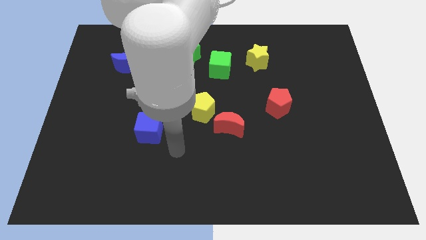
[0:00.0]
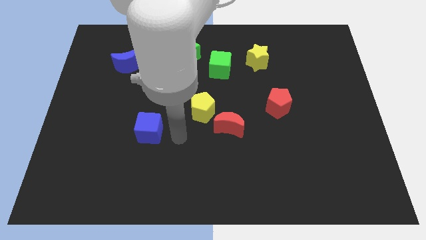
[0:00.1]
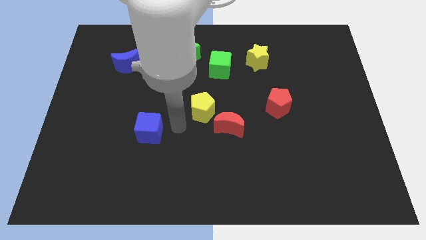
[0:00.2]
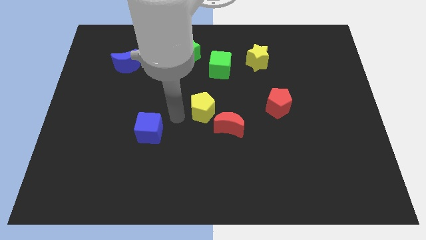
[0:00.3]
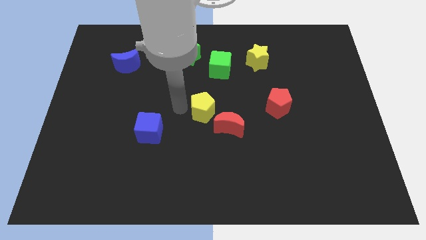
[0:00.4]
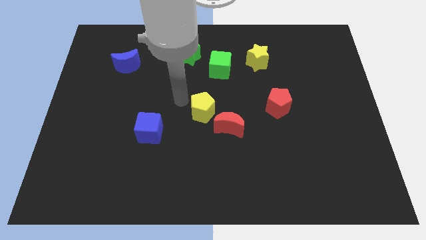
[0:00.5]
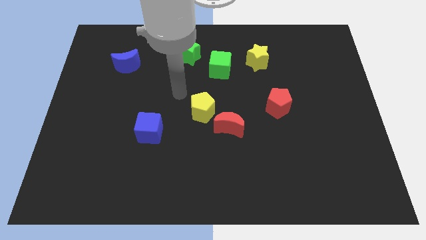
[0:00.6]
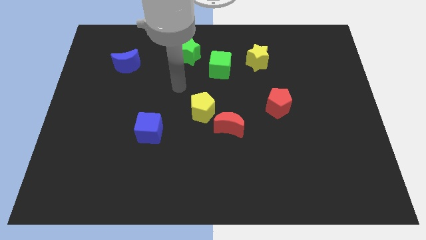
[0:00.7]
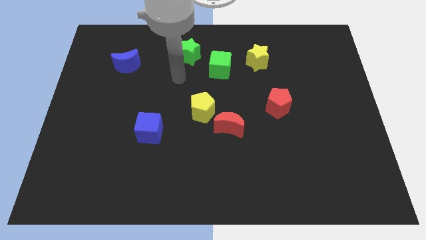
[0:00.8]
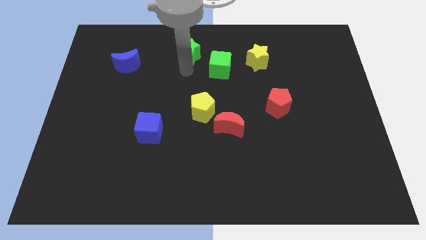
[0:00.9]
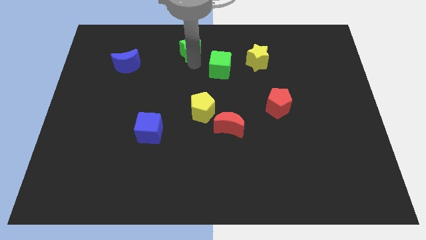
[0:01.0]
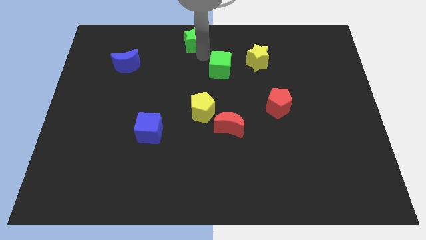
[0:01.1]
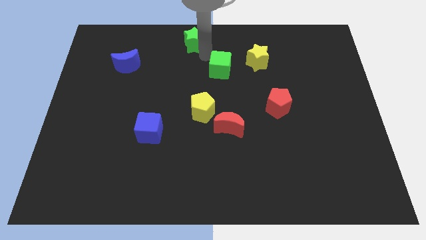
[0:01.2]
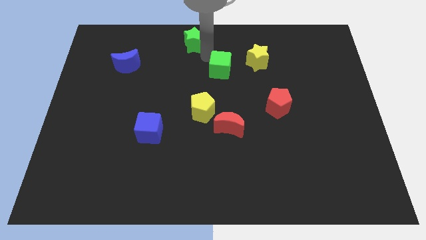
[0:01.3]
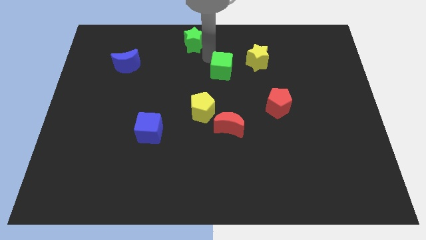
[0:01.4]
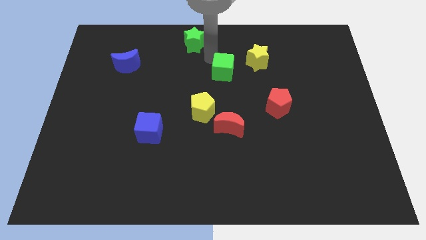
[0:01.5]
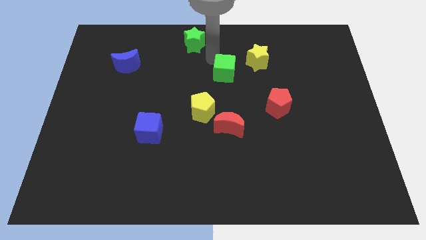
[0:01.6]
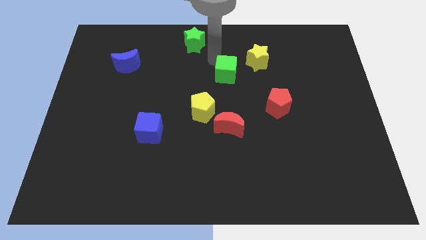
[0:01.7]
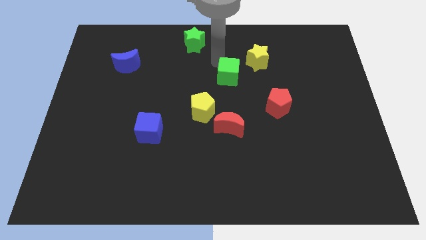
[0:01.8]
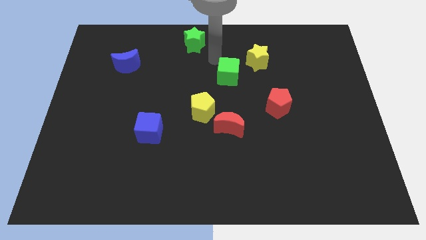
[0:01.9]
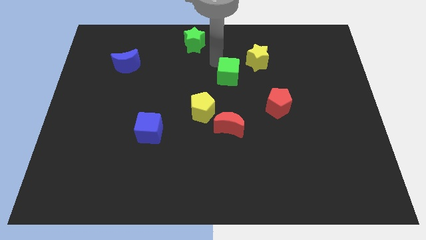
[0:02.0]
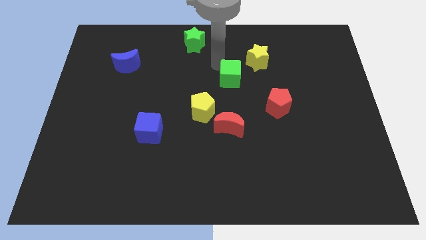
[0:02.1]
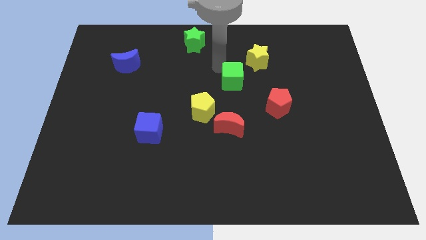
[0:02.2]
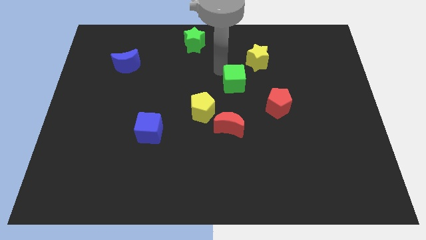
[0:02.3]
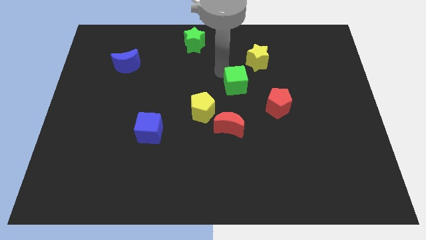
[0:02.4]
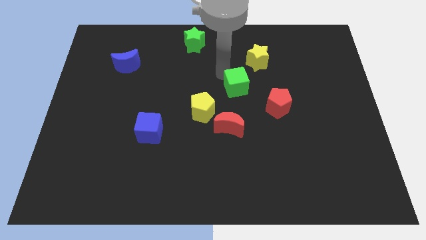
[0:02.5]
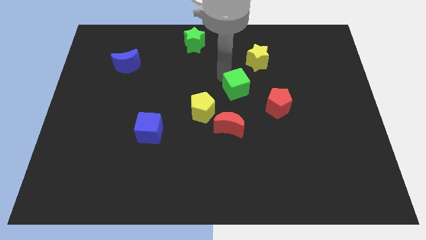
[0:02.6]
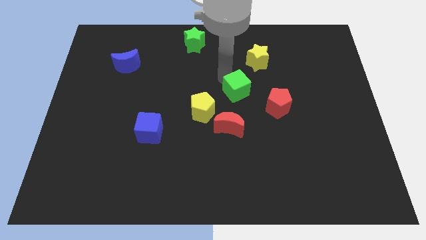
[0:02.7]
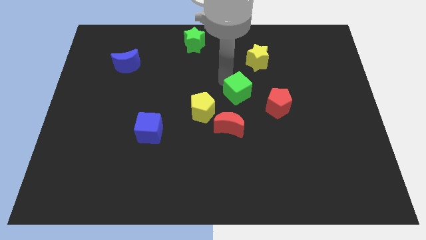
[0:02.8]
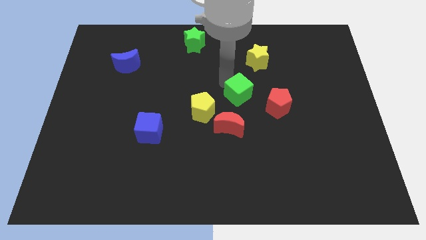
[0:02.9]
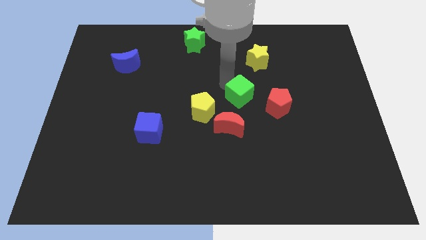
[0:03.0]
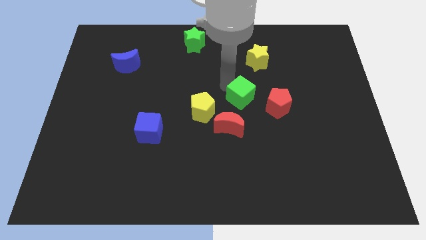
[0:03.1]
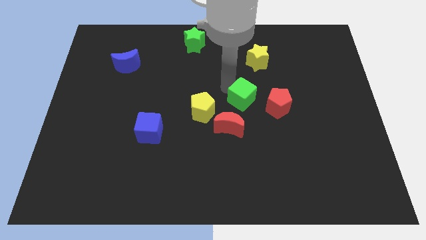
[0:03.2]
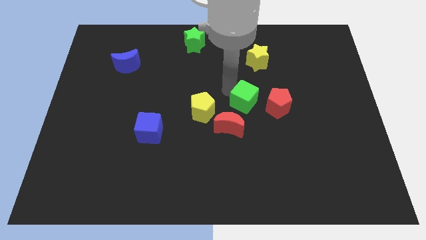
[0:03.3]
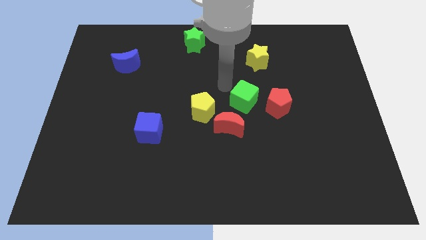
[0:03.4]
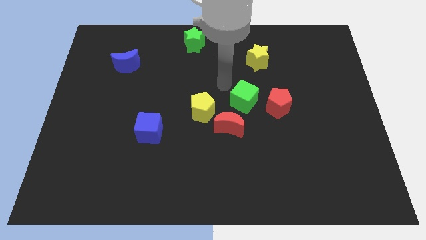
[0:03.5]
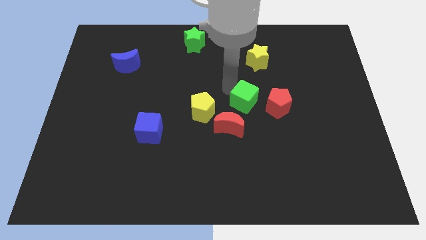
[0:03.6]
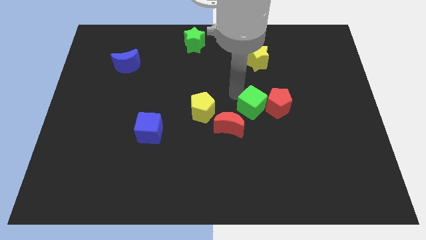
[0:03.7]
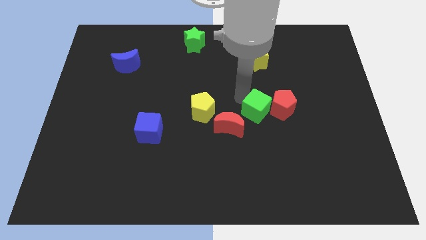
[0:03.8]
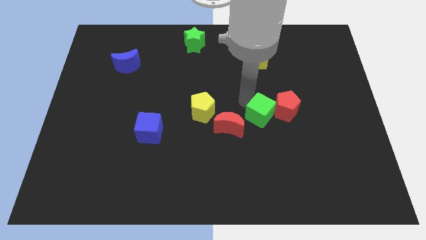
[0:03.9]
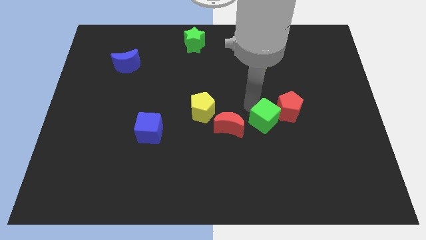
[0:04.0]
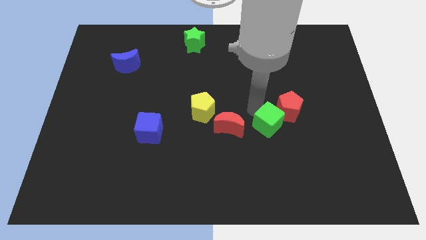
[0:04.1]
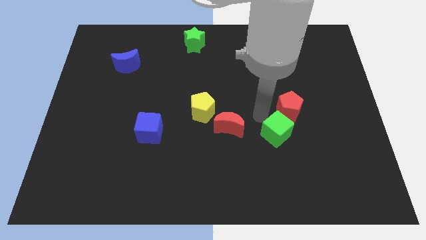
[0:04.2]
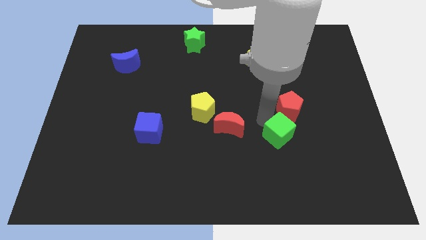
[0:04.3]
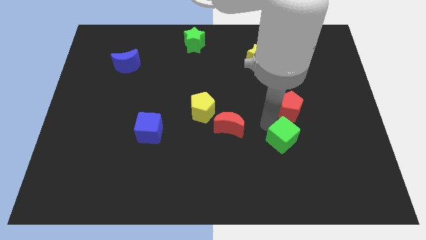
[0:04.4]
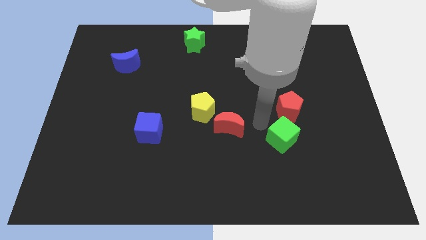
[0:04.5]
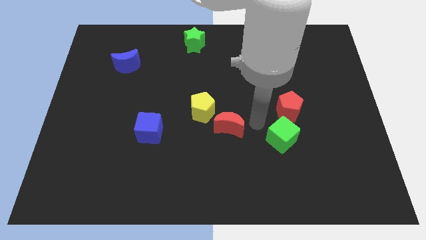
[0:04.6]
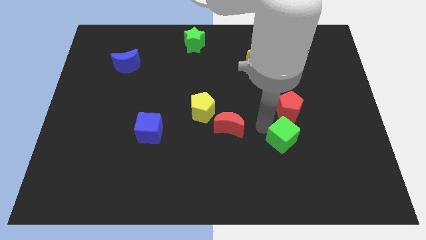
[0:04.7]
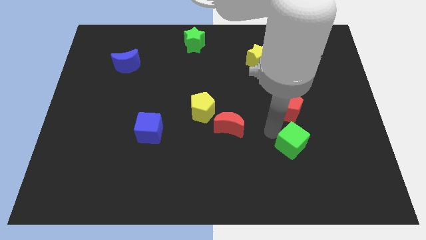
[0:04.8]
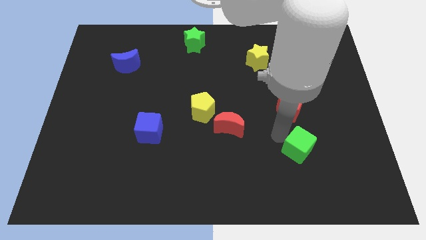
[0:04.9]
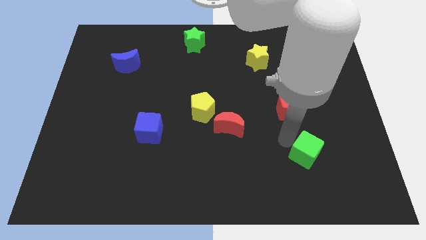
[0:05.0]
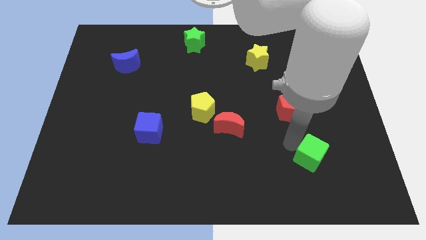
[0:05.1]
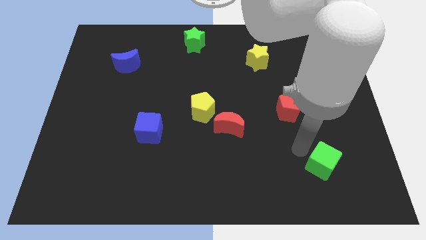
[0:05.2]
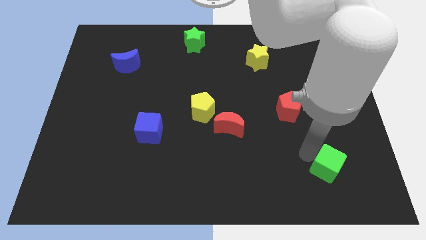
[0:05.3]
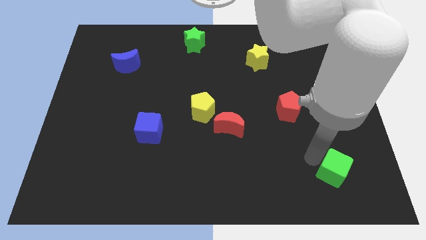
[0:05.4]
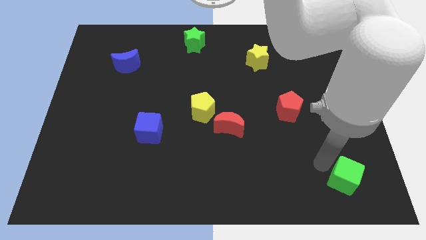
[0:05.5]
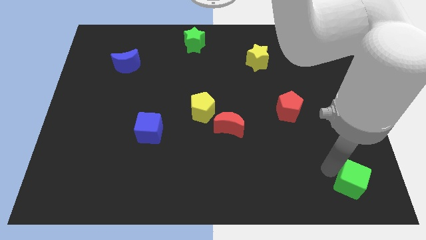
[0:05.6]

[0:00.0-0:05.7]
move the green cube to the bottom right of the board

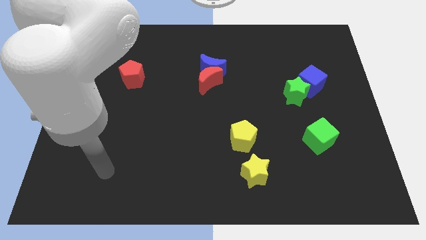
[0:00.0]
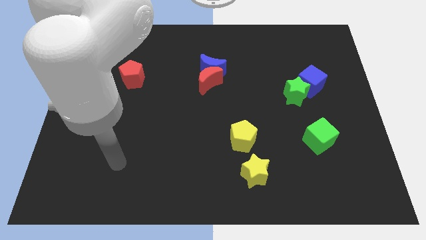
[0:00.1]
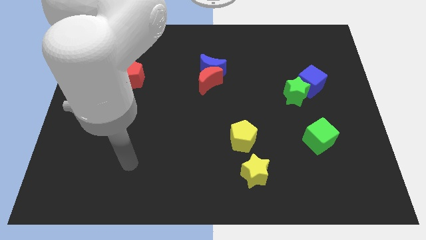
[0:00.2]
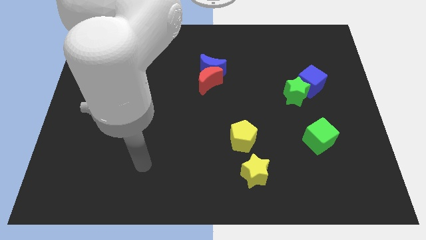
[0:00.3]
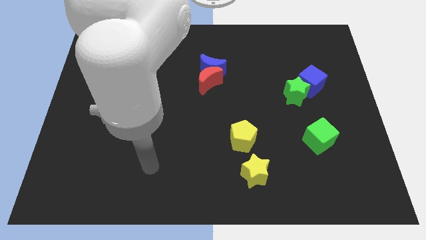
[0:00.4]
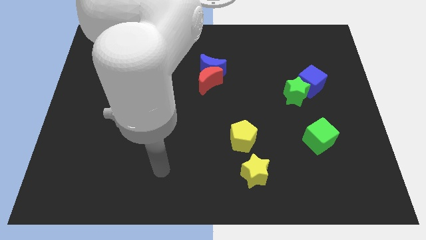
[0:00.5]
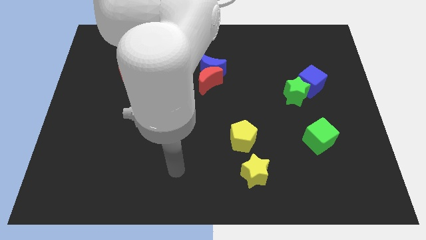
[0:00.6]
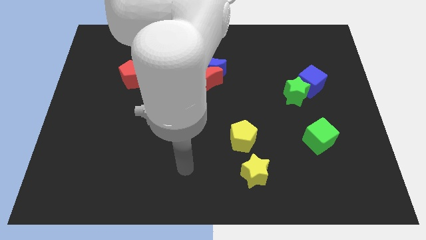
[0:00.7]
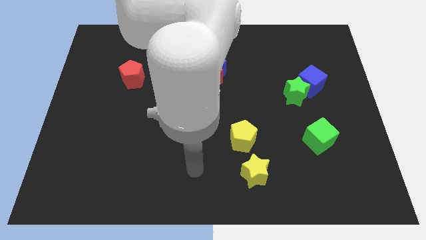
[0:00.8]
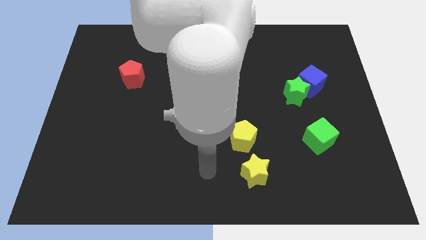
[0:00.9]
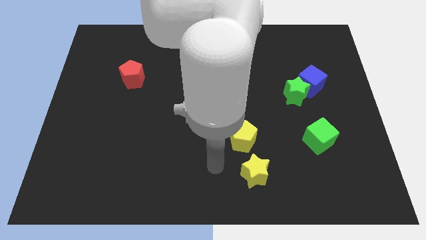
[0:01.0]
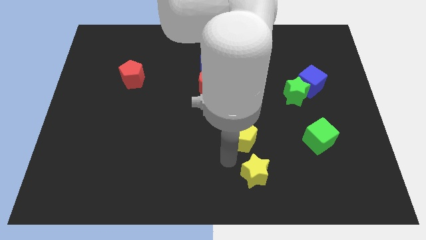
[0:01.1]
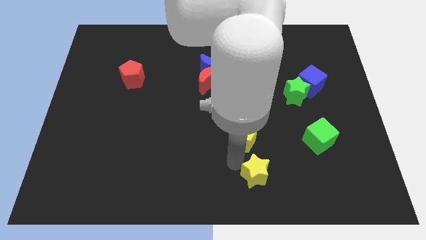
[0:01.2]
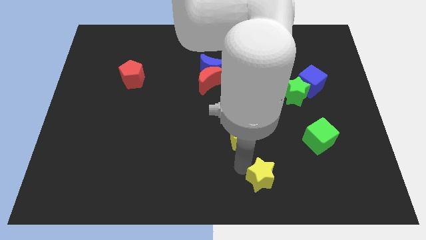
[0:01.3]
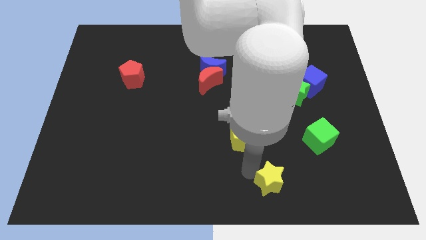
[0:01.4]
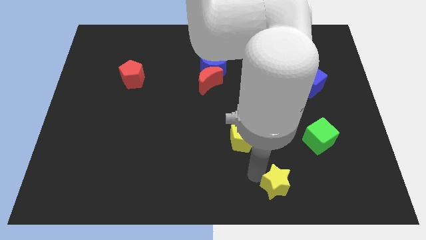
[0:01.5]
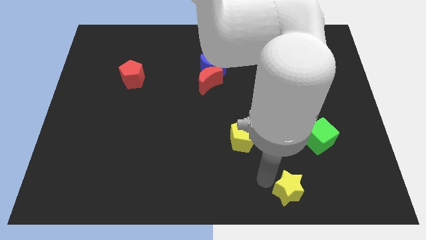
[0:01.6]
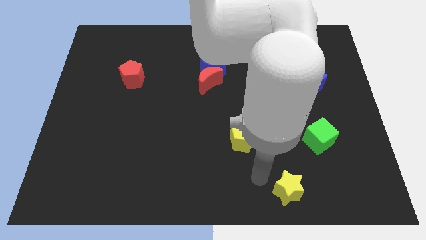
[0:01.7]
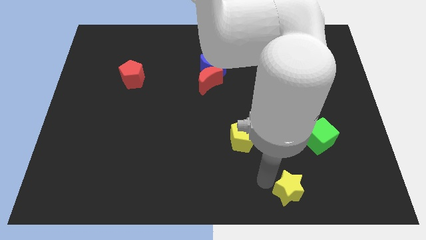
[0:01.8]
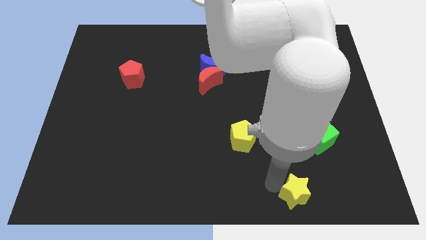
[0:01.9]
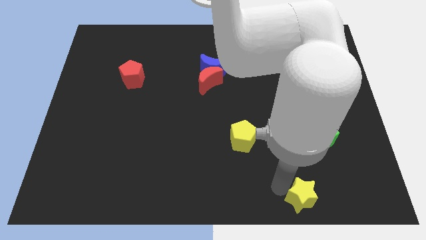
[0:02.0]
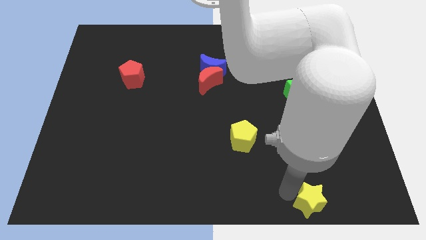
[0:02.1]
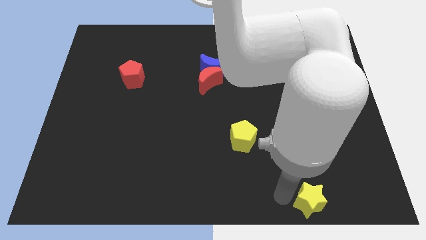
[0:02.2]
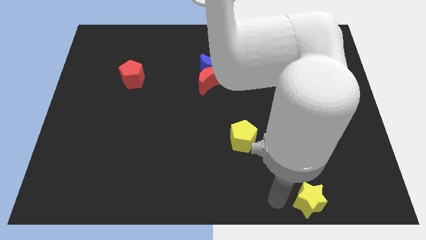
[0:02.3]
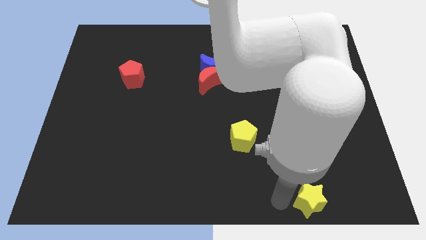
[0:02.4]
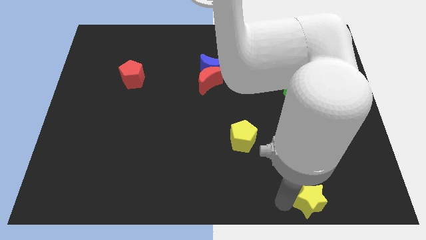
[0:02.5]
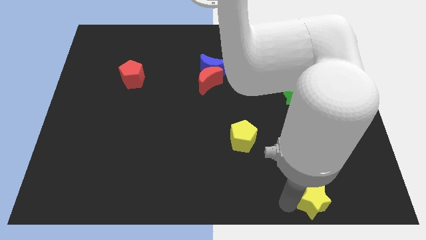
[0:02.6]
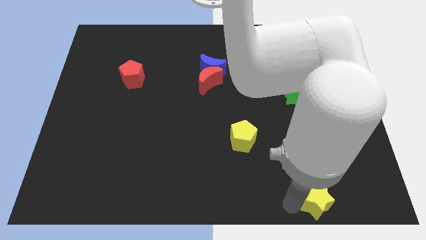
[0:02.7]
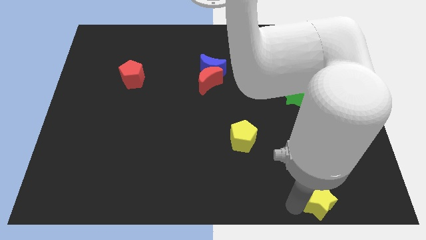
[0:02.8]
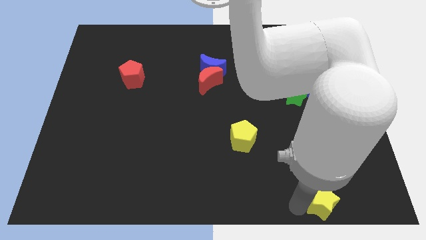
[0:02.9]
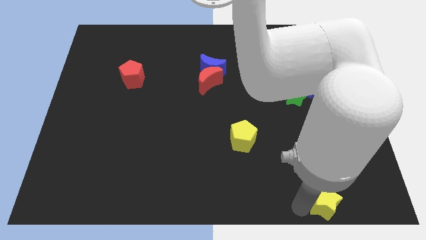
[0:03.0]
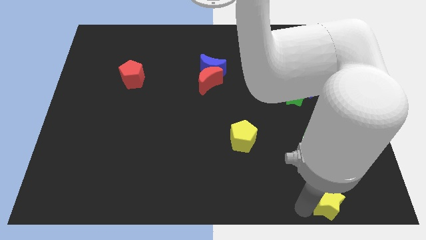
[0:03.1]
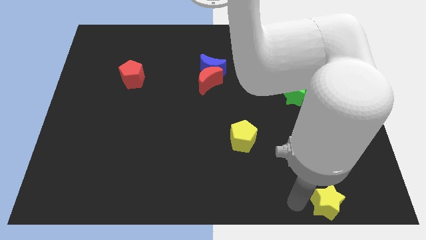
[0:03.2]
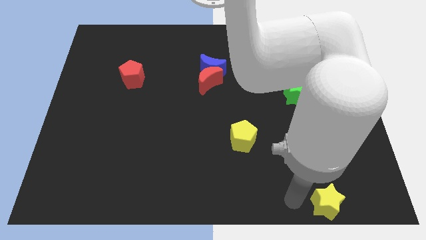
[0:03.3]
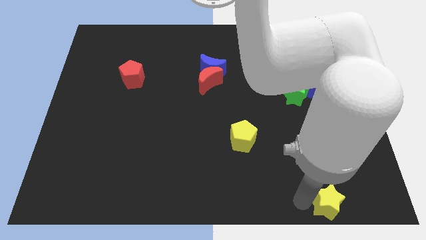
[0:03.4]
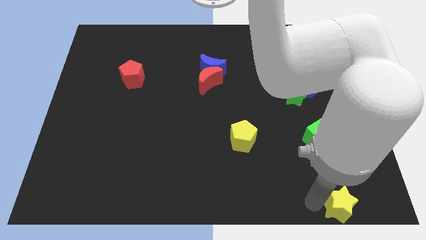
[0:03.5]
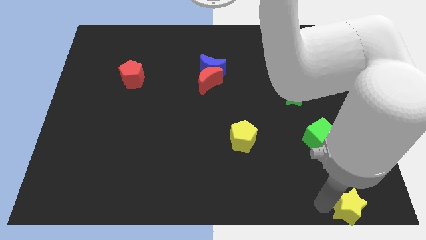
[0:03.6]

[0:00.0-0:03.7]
slide the yellow star to the bottom right corner
